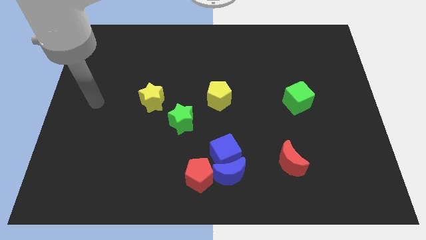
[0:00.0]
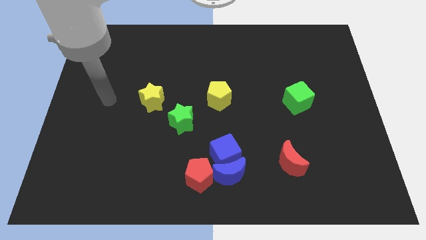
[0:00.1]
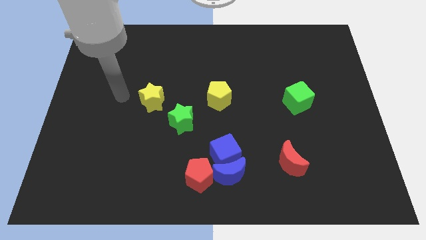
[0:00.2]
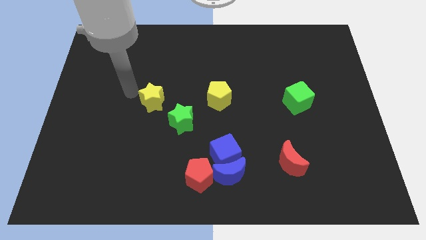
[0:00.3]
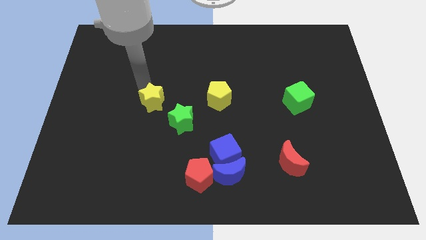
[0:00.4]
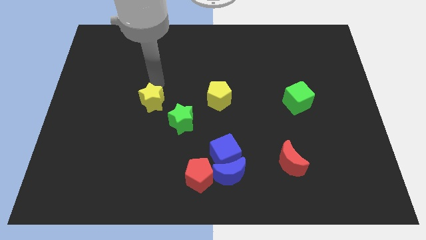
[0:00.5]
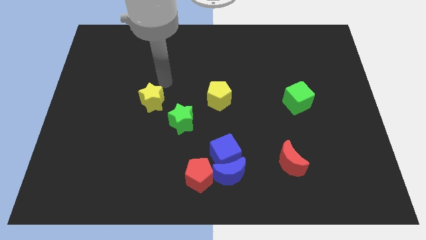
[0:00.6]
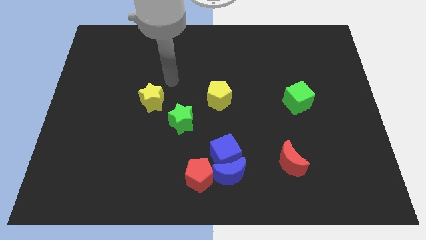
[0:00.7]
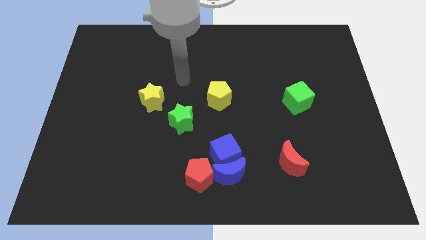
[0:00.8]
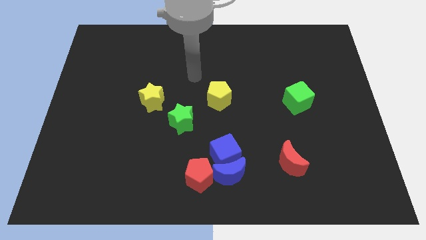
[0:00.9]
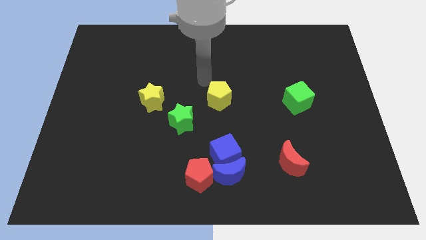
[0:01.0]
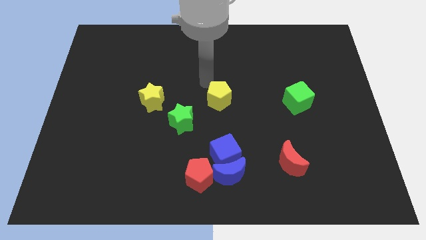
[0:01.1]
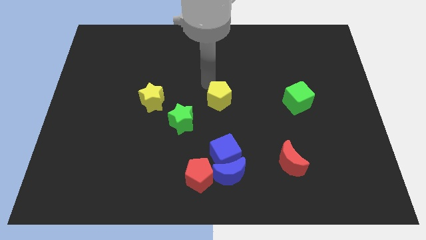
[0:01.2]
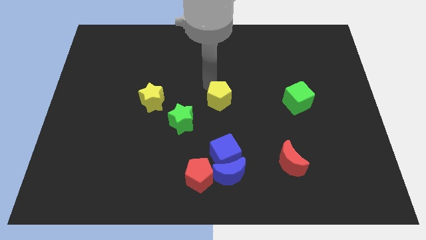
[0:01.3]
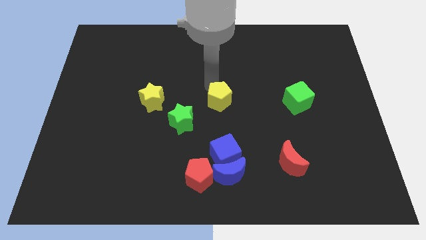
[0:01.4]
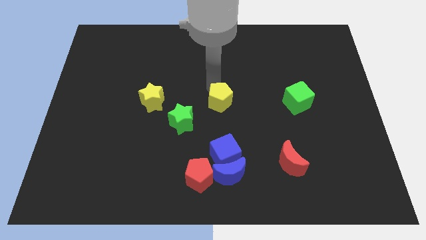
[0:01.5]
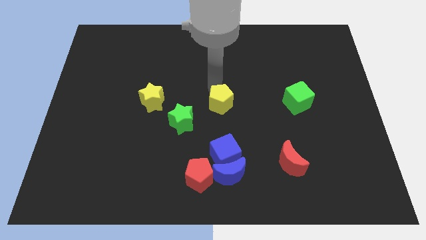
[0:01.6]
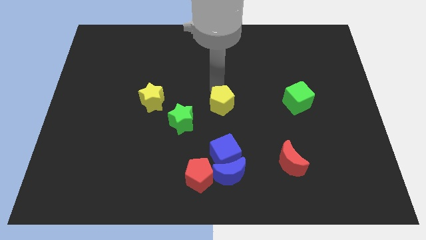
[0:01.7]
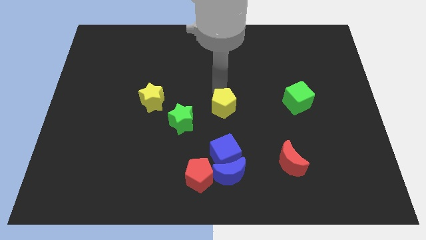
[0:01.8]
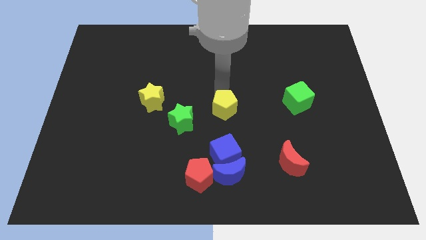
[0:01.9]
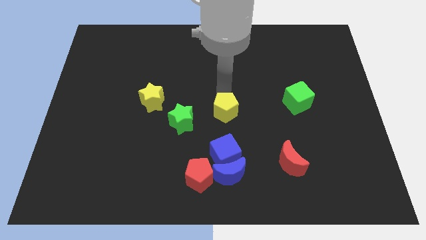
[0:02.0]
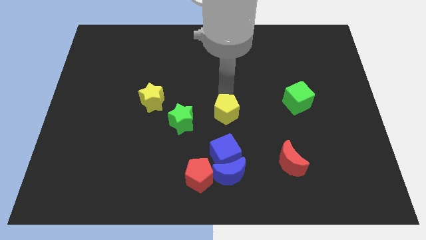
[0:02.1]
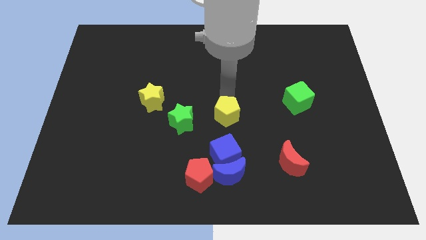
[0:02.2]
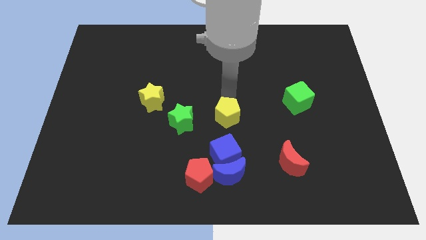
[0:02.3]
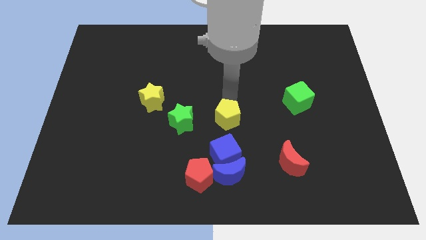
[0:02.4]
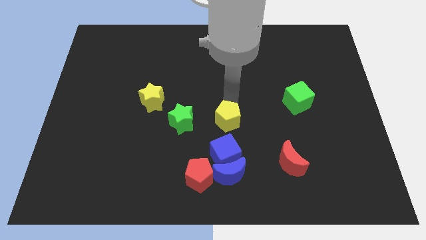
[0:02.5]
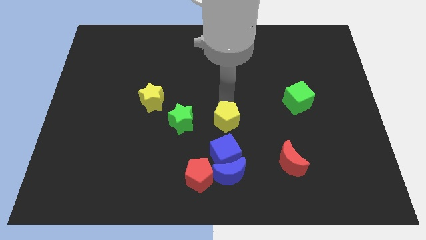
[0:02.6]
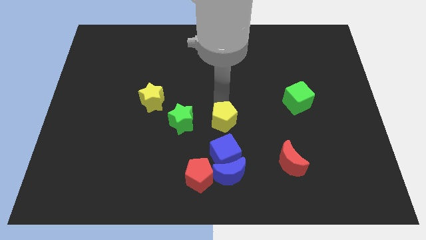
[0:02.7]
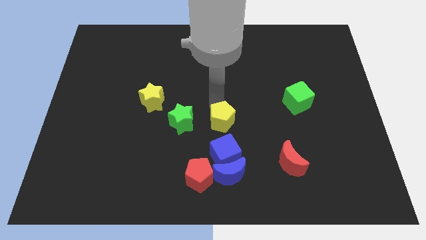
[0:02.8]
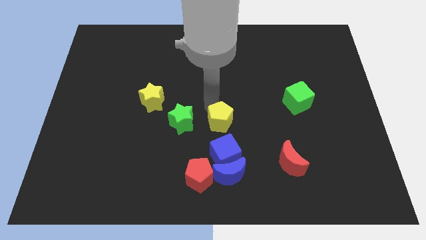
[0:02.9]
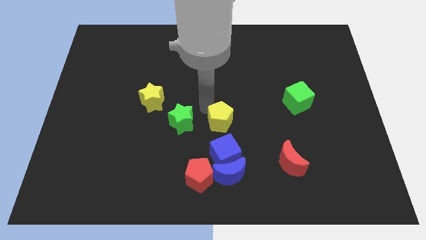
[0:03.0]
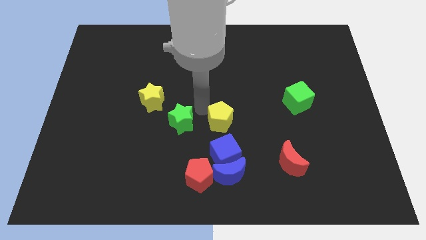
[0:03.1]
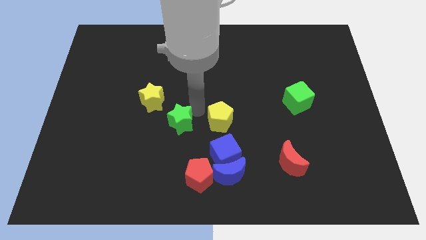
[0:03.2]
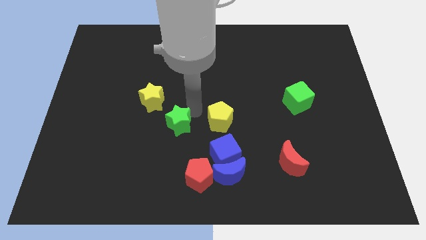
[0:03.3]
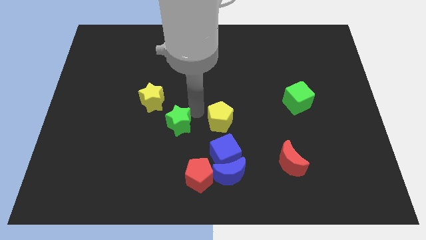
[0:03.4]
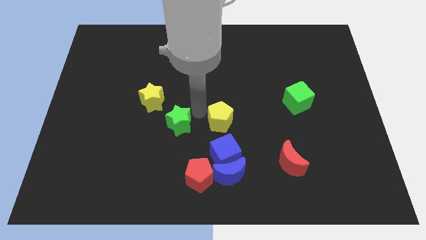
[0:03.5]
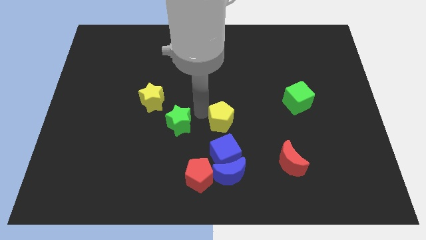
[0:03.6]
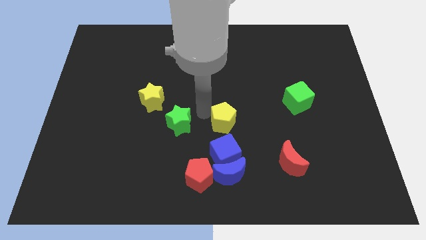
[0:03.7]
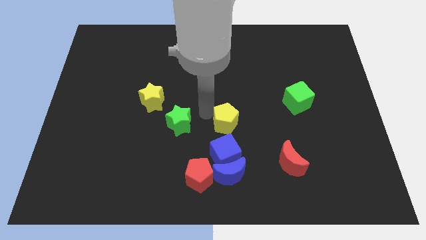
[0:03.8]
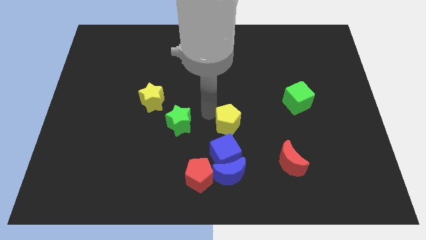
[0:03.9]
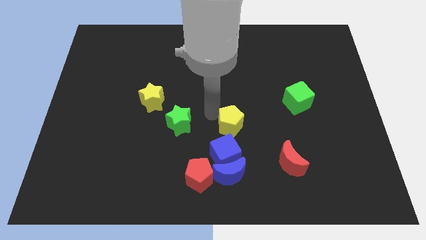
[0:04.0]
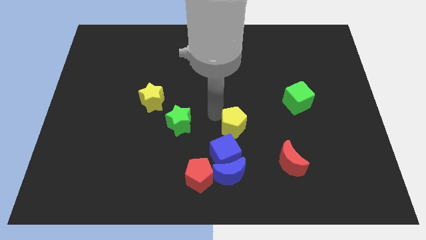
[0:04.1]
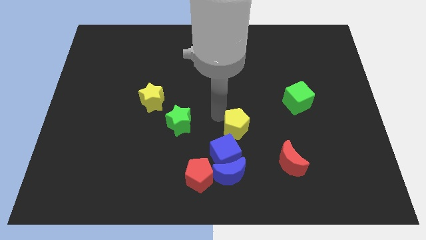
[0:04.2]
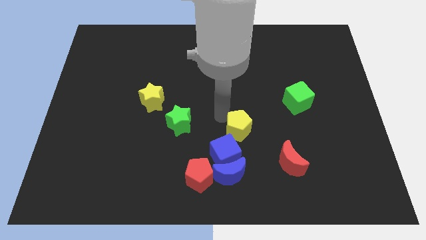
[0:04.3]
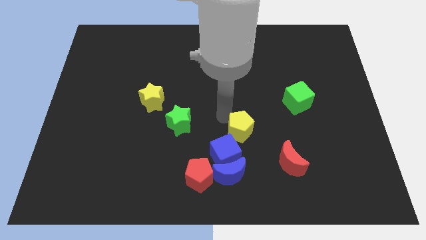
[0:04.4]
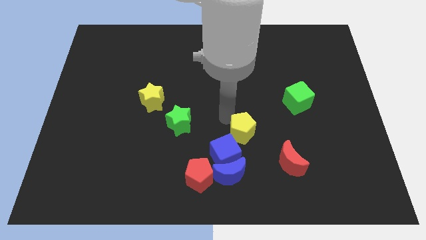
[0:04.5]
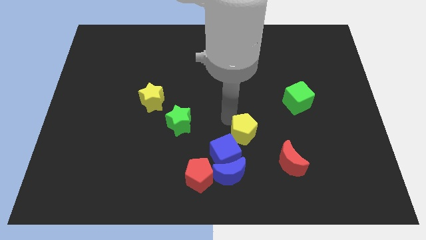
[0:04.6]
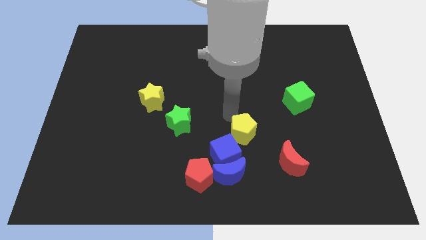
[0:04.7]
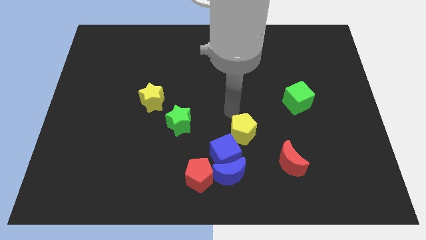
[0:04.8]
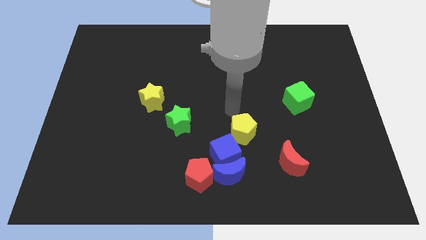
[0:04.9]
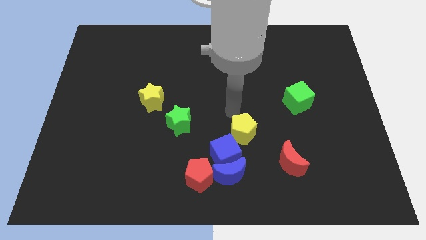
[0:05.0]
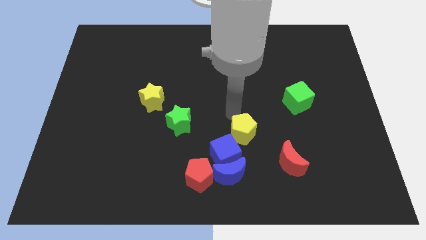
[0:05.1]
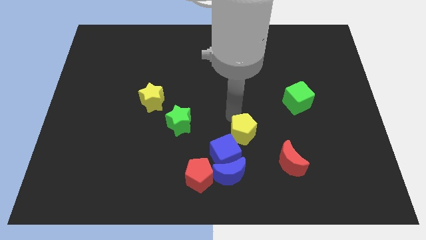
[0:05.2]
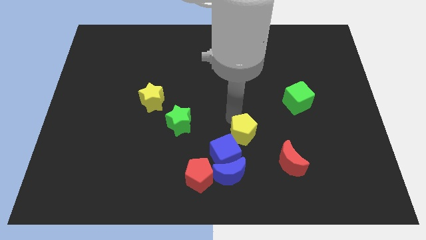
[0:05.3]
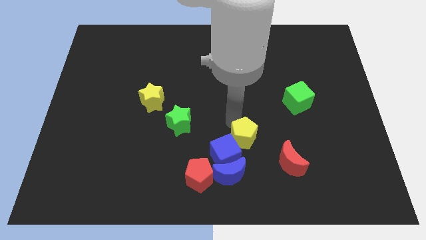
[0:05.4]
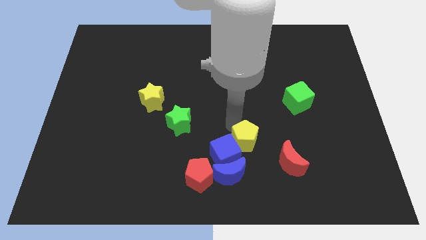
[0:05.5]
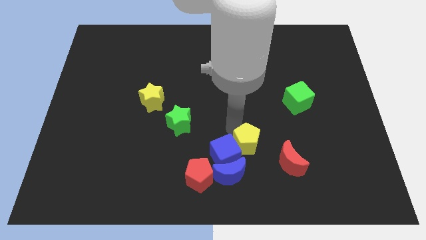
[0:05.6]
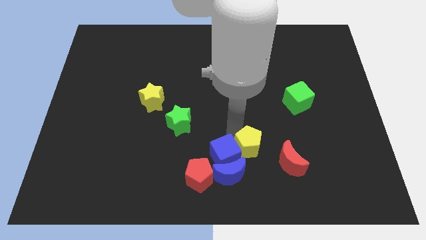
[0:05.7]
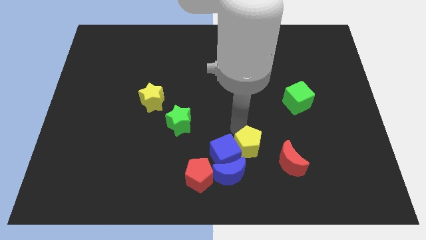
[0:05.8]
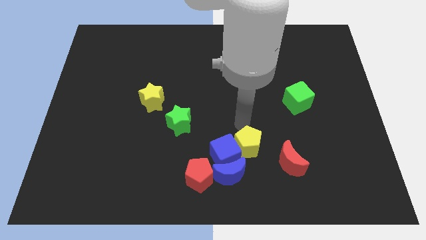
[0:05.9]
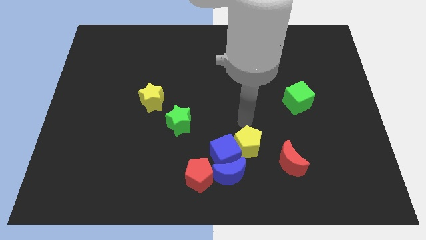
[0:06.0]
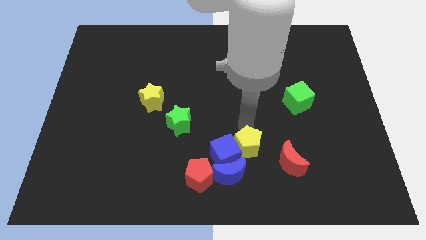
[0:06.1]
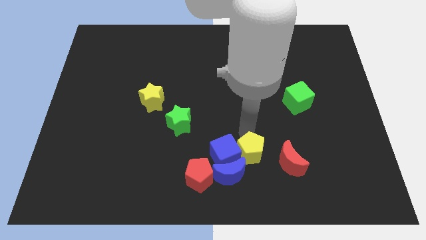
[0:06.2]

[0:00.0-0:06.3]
move the yellow pentagon to the bottom right side of the blue cube

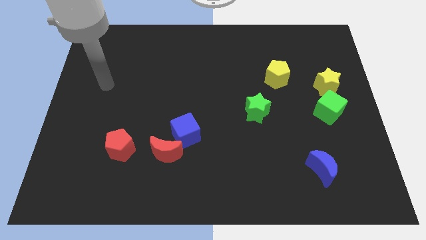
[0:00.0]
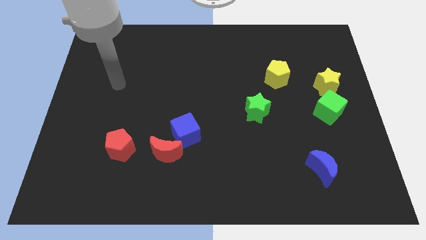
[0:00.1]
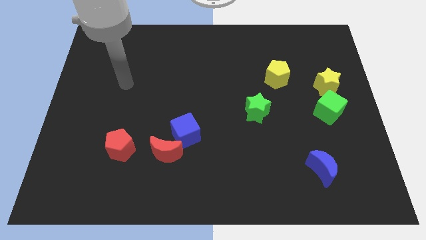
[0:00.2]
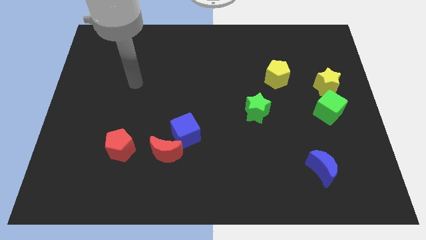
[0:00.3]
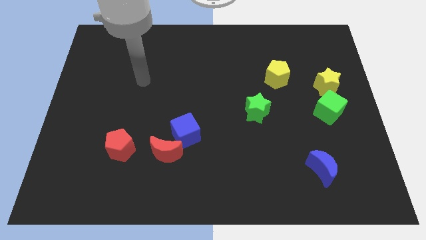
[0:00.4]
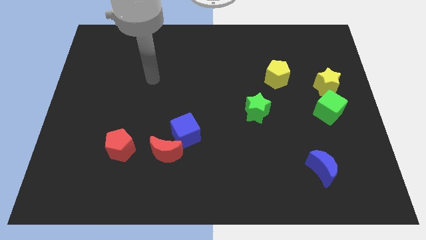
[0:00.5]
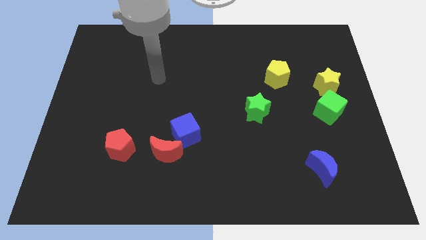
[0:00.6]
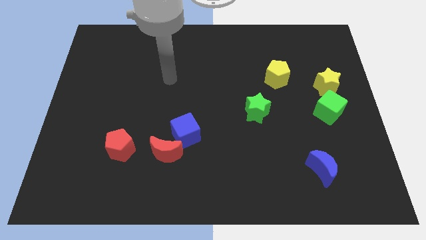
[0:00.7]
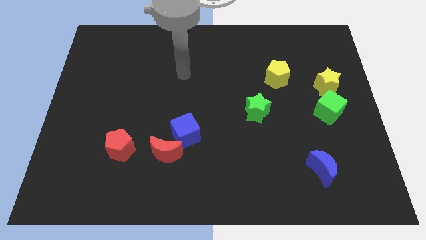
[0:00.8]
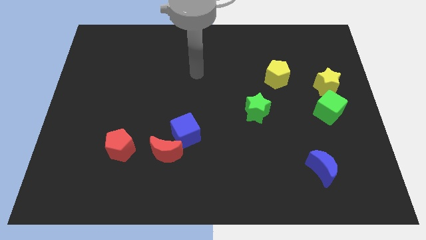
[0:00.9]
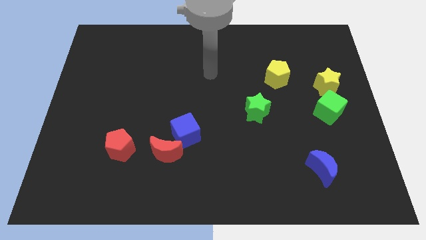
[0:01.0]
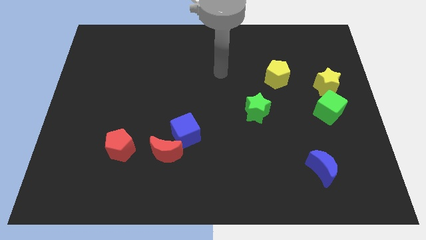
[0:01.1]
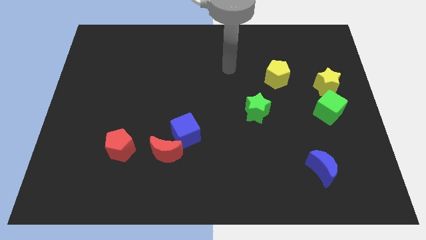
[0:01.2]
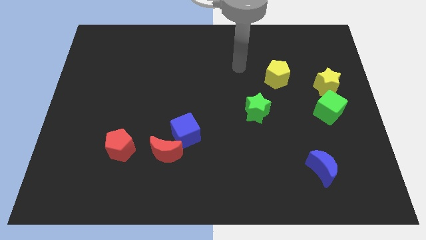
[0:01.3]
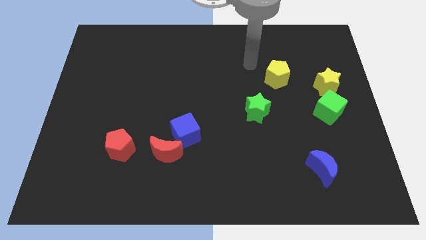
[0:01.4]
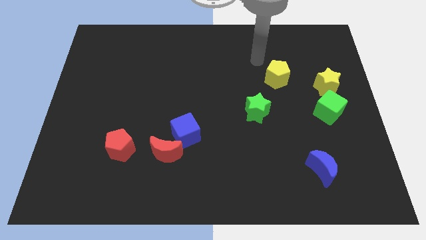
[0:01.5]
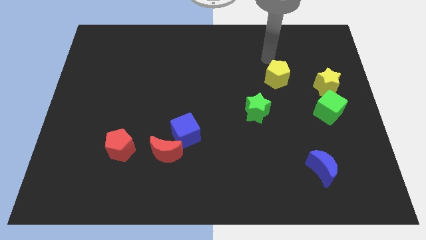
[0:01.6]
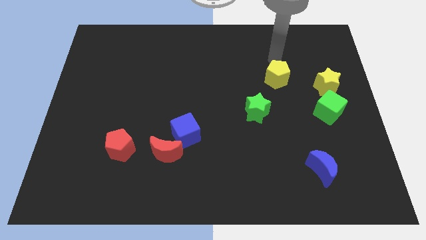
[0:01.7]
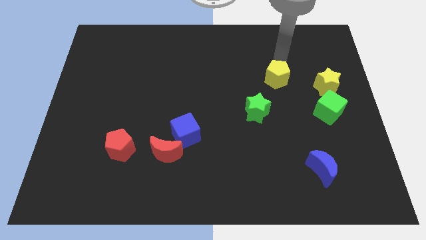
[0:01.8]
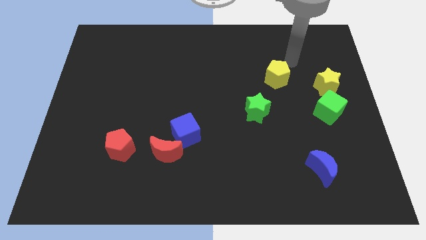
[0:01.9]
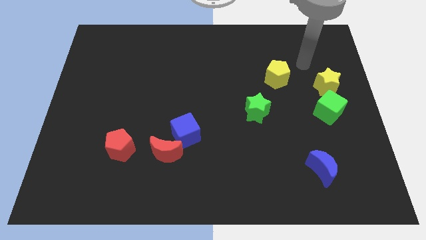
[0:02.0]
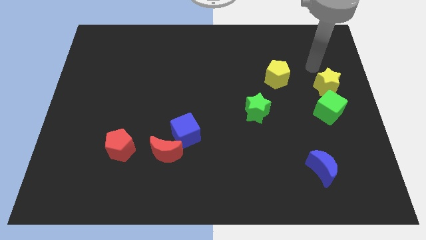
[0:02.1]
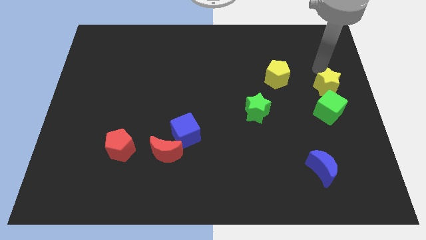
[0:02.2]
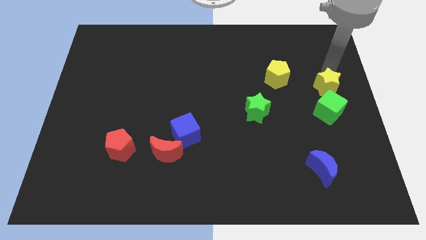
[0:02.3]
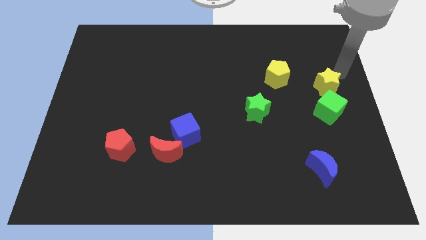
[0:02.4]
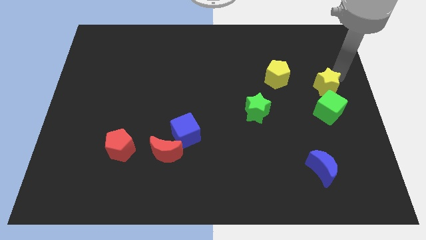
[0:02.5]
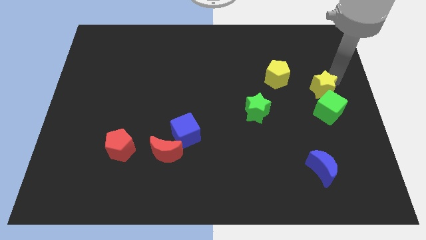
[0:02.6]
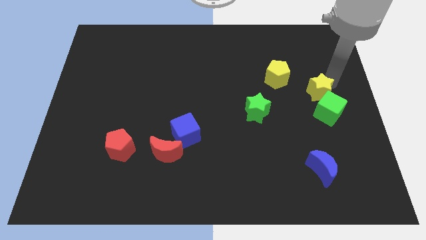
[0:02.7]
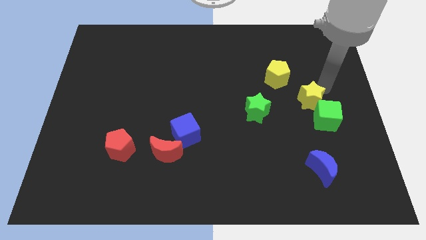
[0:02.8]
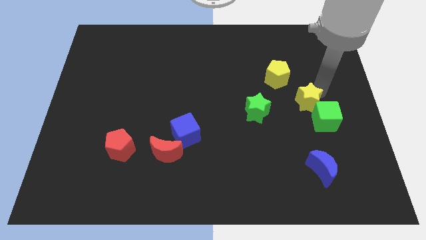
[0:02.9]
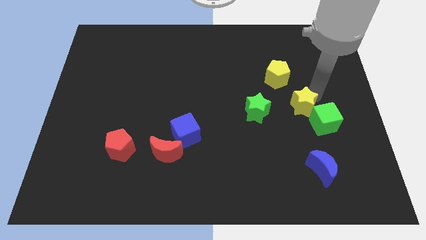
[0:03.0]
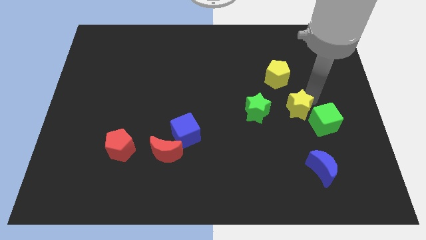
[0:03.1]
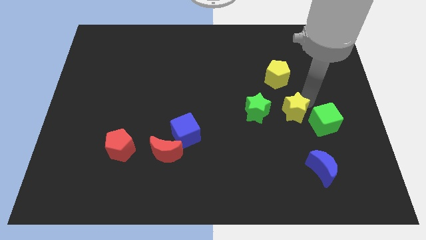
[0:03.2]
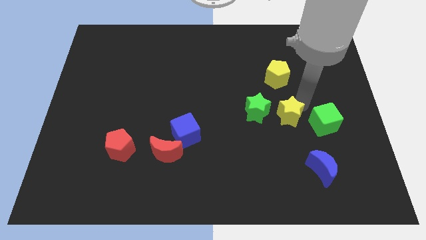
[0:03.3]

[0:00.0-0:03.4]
push the yellow star to the bottom right of the green star
